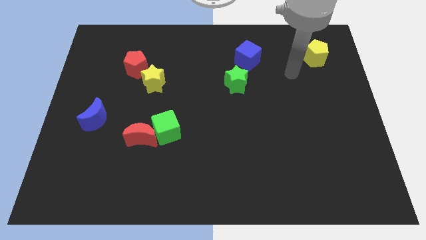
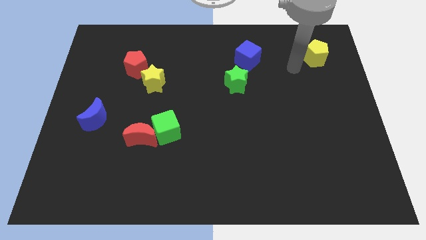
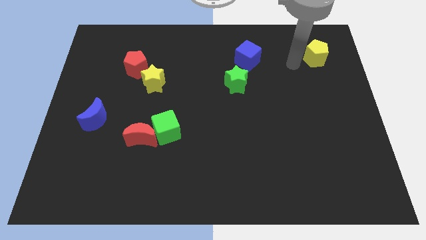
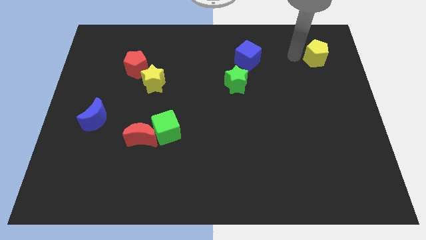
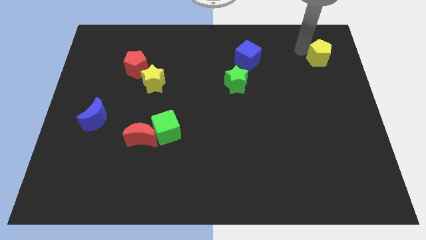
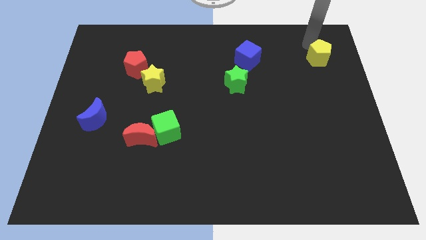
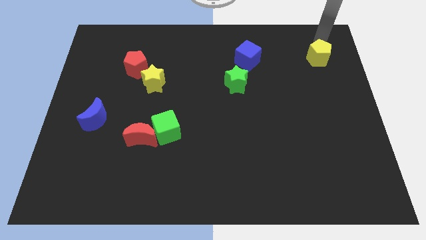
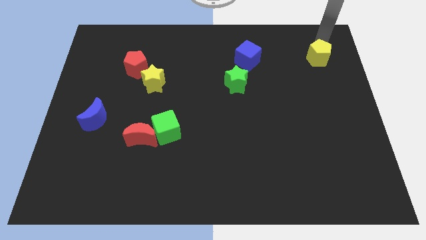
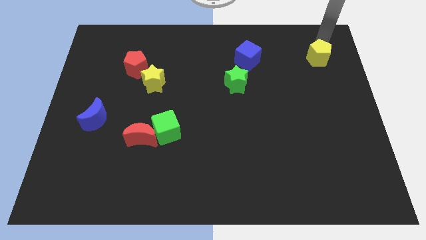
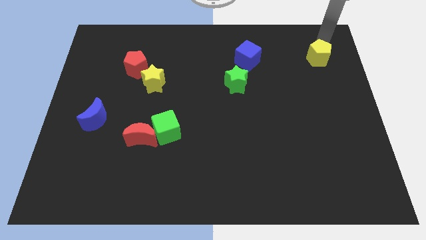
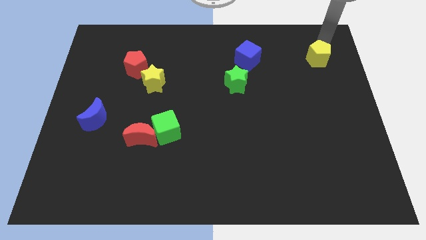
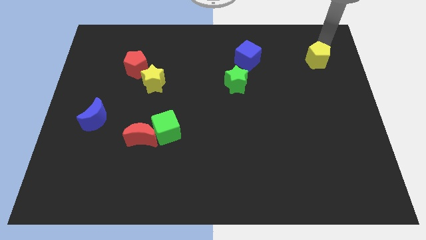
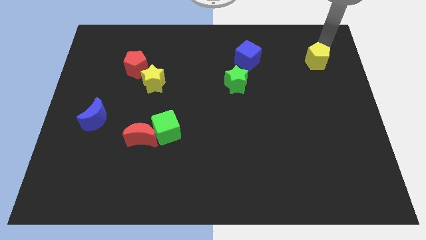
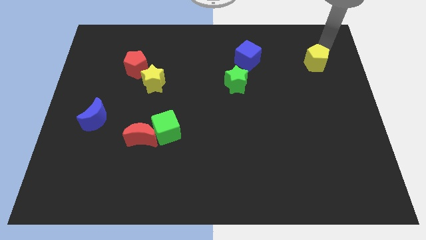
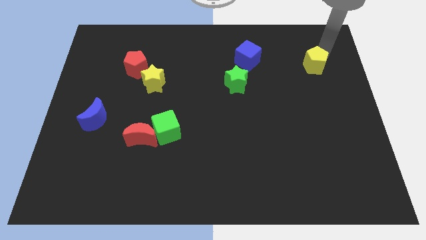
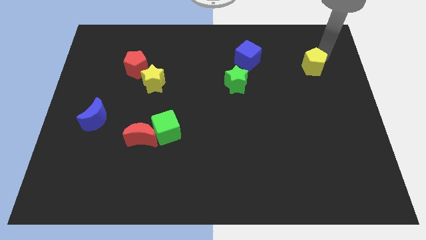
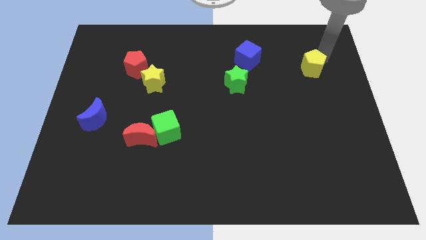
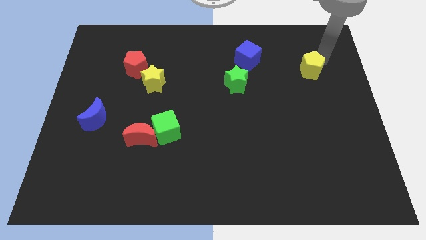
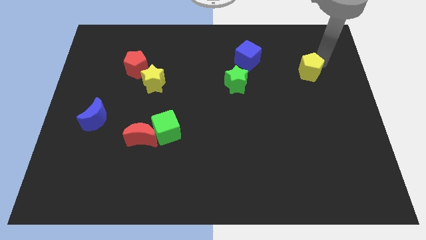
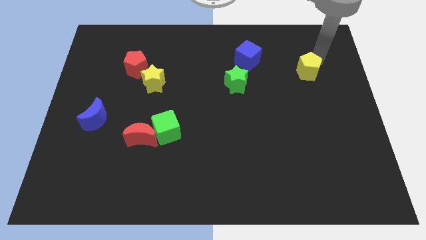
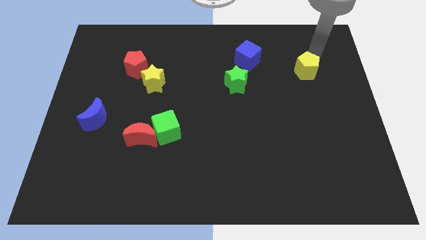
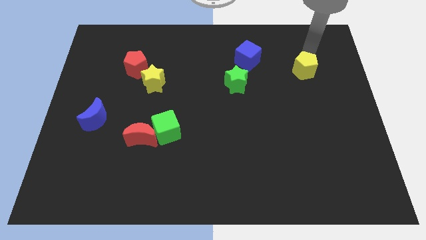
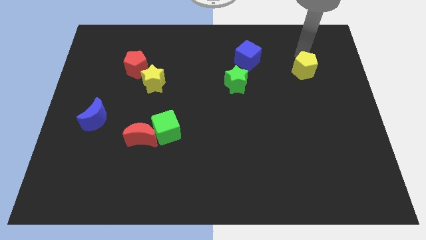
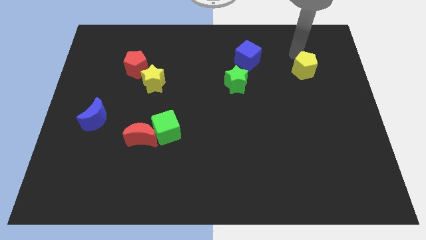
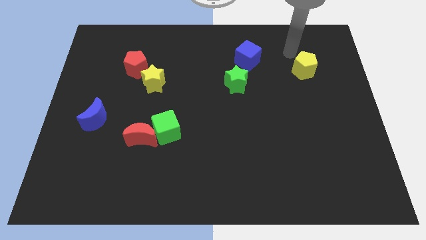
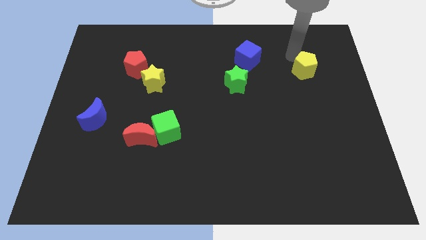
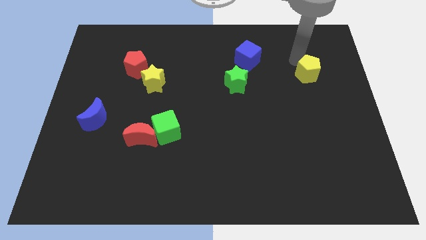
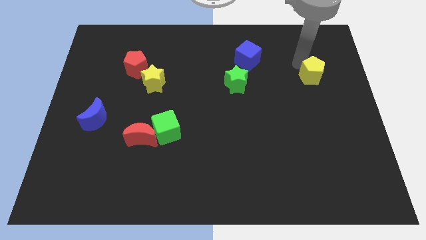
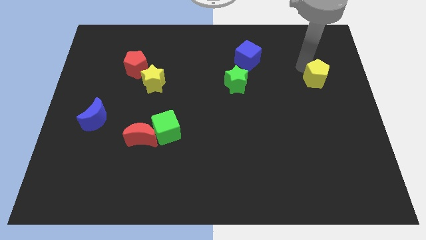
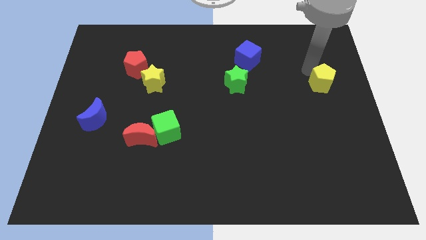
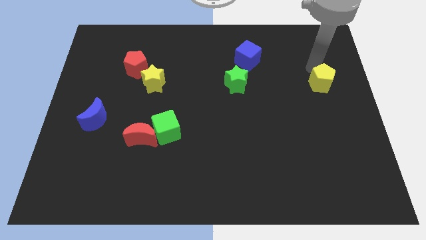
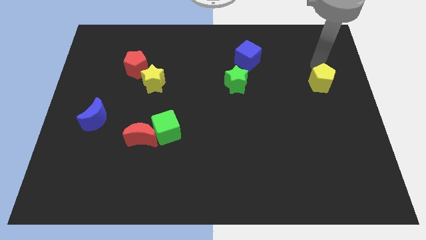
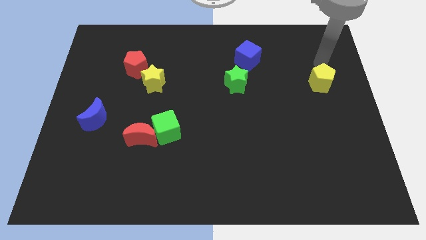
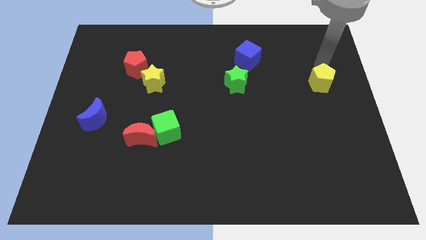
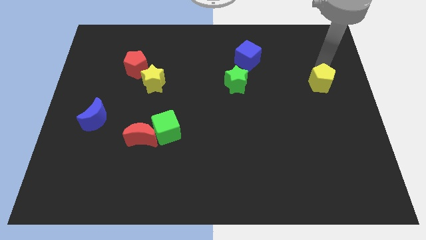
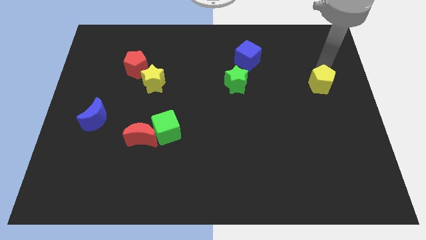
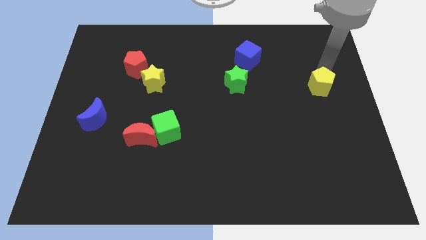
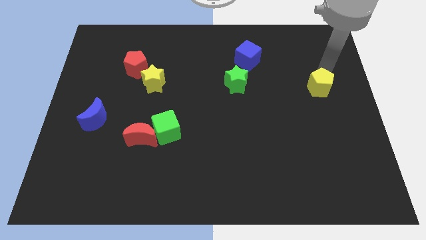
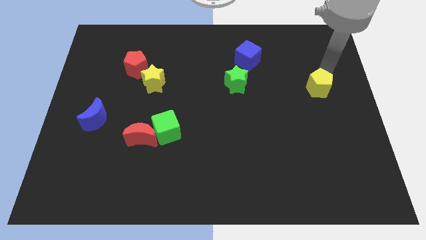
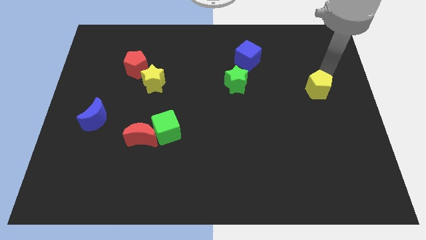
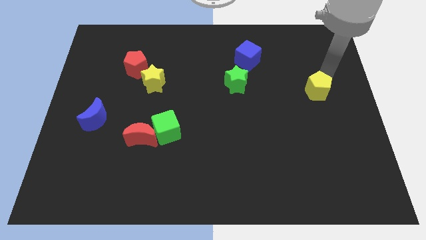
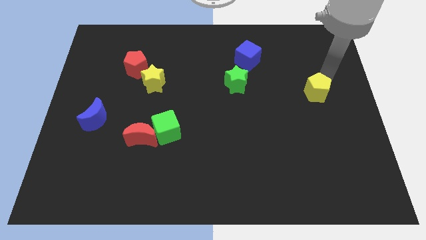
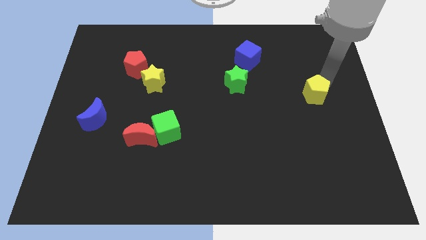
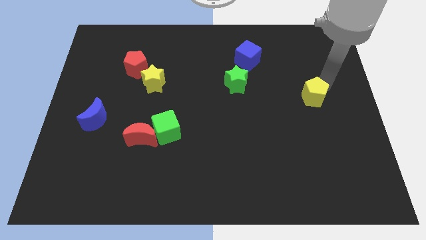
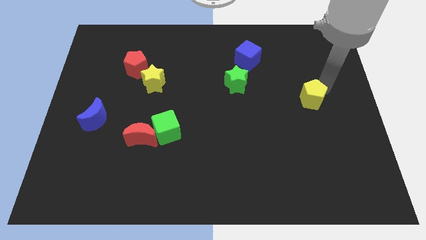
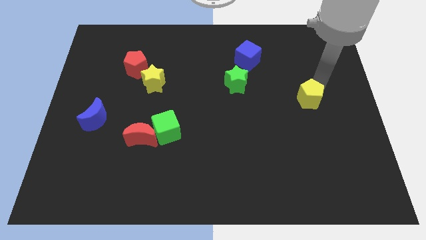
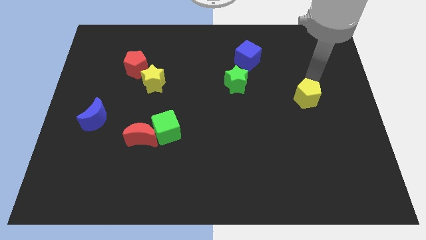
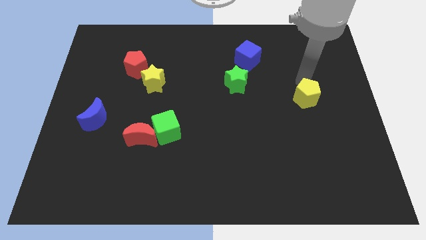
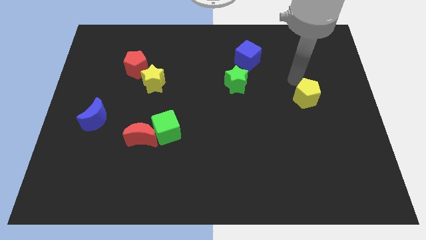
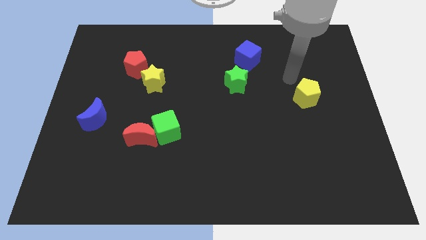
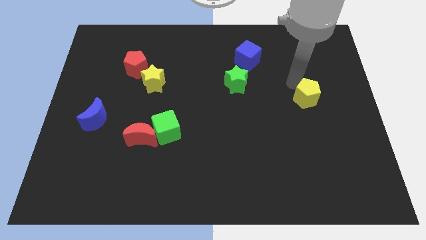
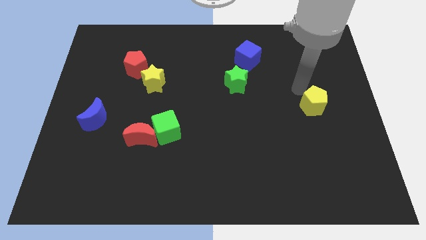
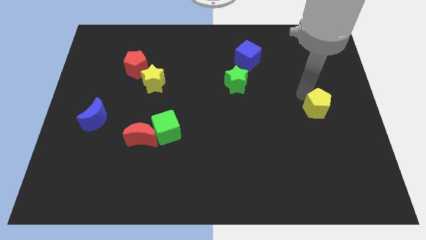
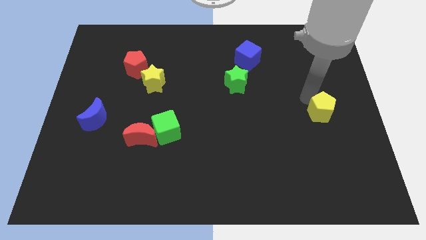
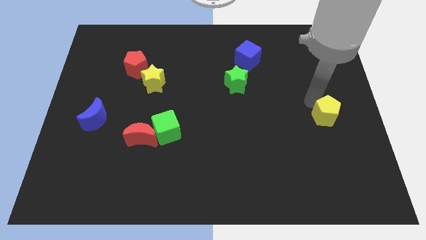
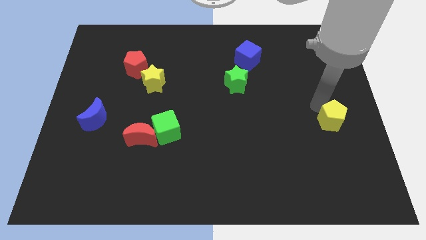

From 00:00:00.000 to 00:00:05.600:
push the yellow pentagon down

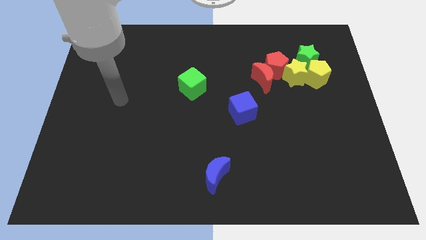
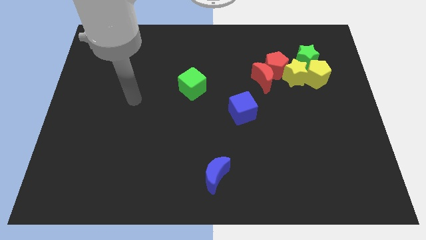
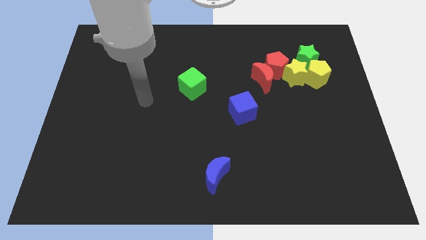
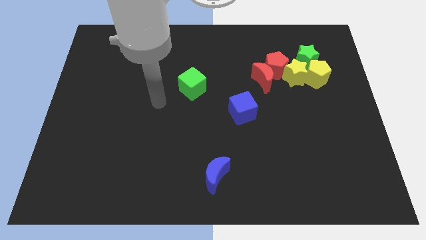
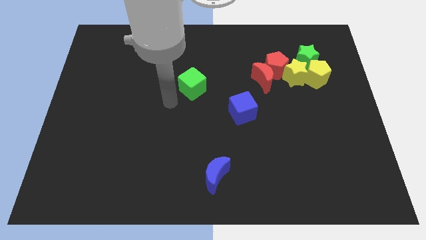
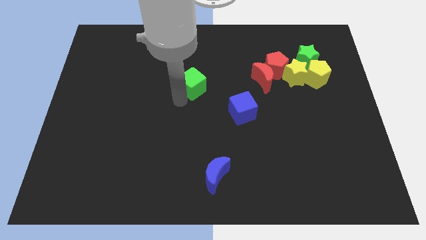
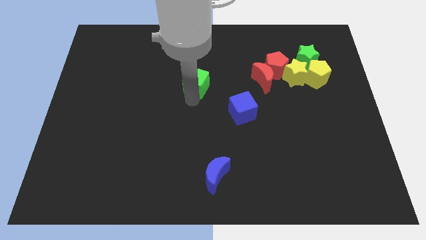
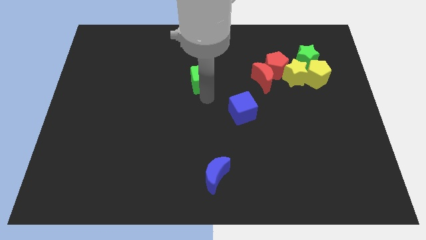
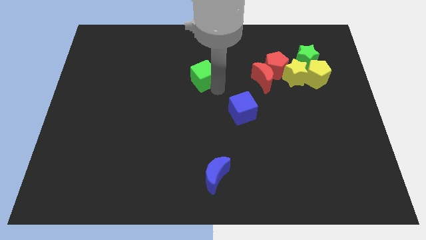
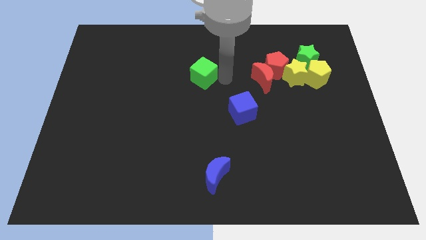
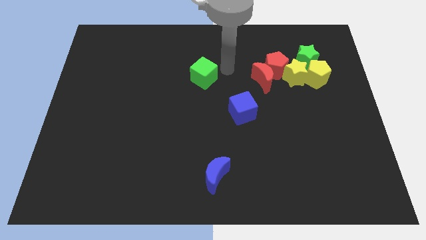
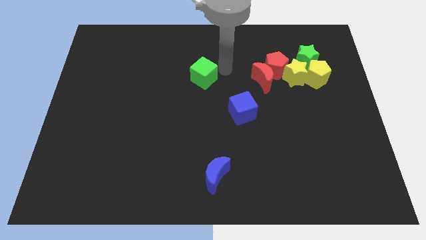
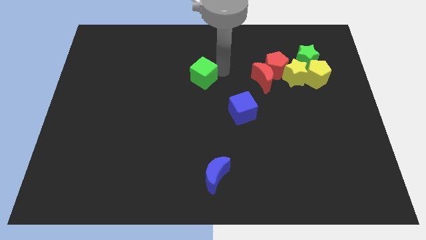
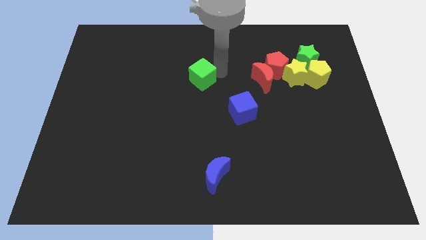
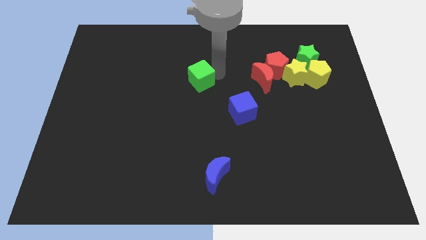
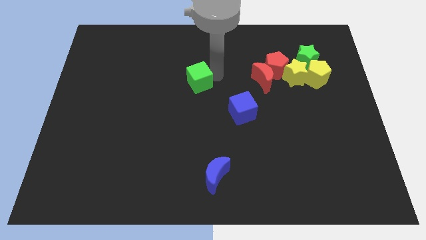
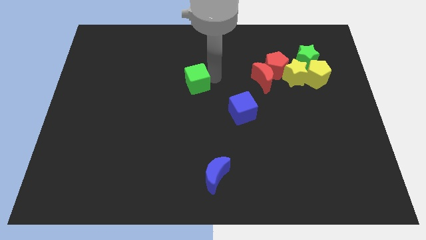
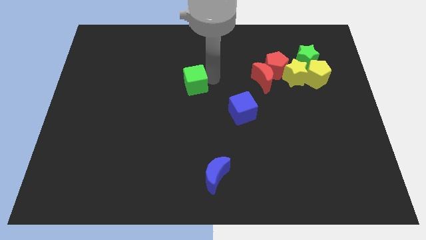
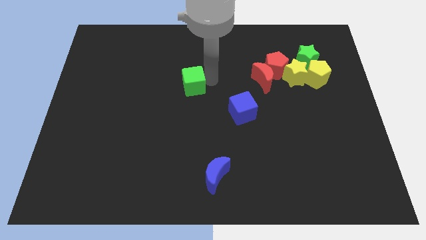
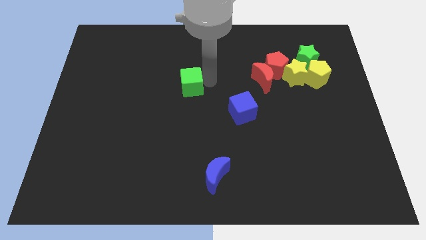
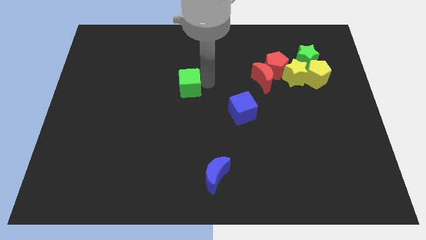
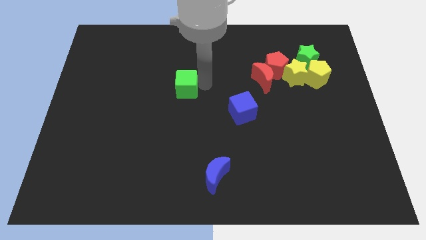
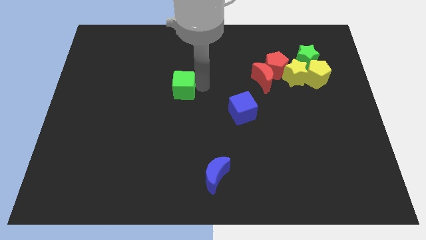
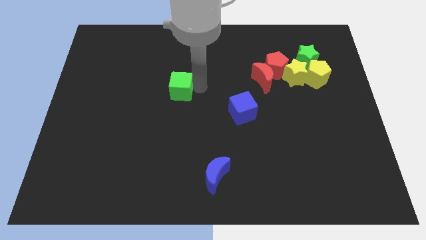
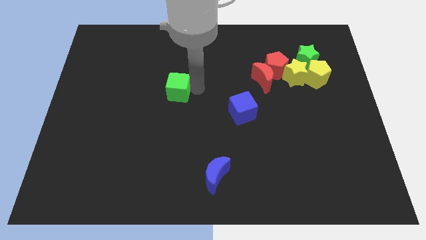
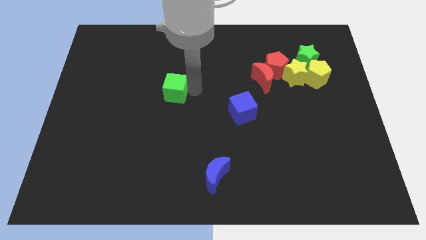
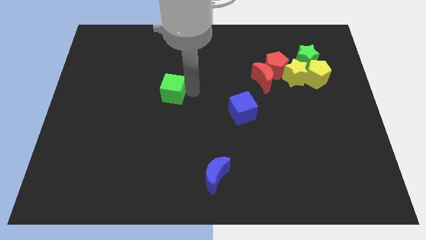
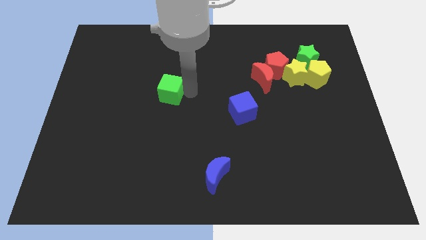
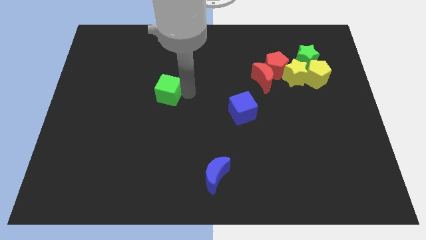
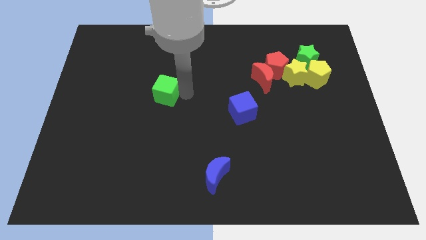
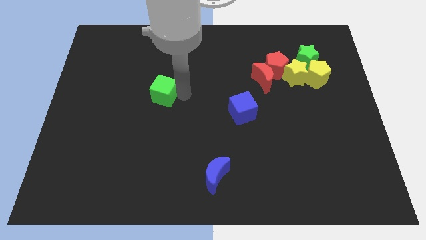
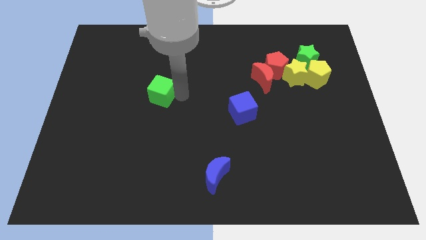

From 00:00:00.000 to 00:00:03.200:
push the green cube to the left somewhat
